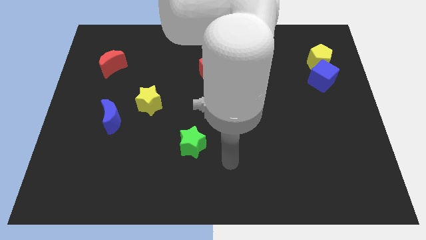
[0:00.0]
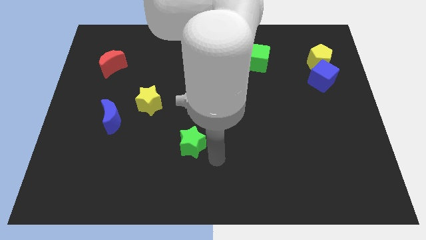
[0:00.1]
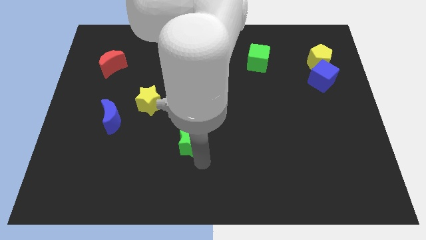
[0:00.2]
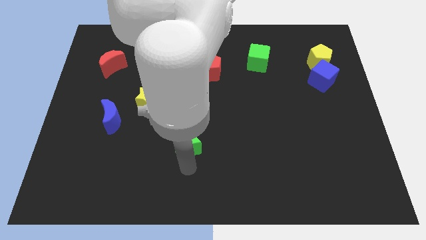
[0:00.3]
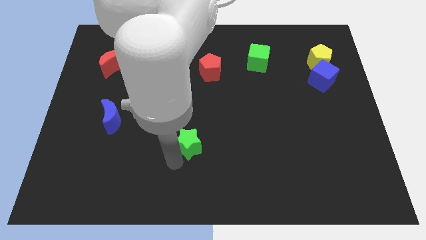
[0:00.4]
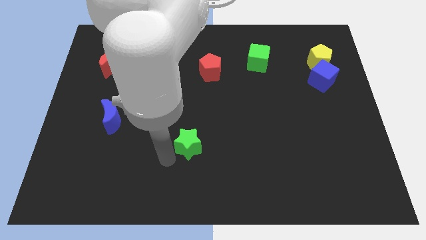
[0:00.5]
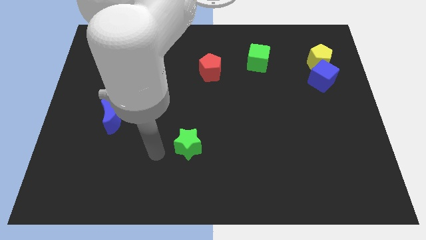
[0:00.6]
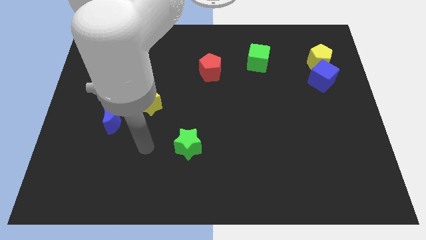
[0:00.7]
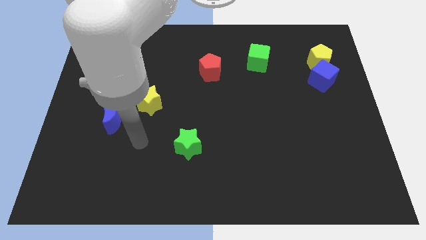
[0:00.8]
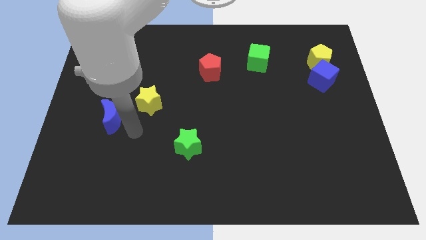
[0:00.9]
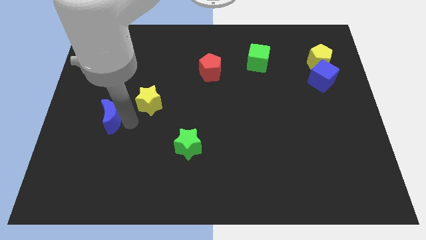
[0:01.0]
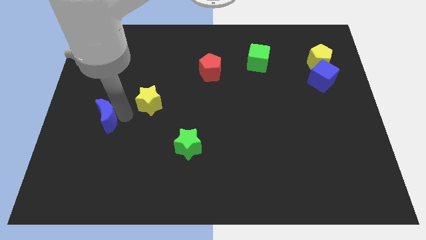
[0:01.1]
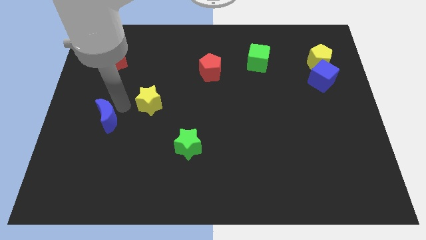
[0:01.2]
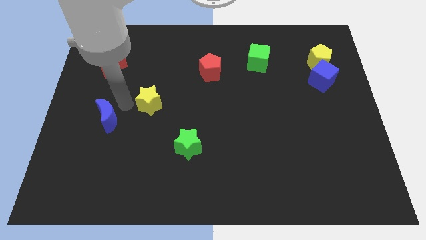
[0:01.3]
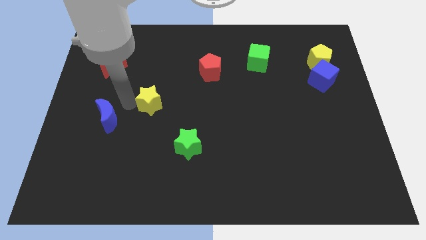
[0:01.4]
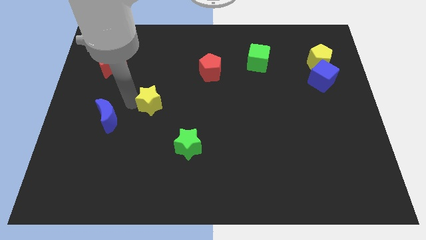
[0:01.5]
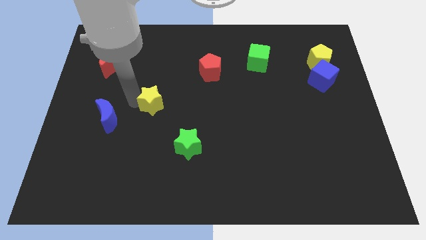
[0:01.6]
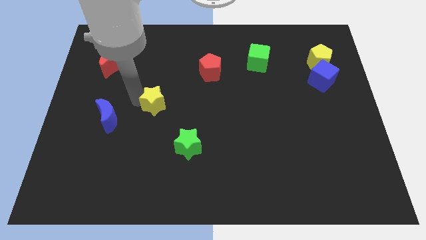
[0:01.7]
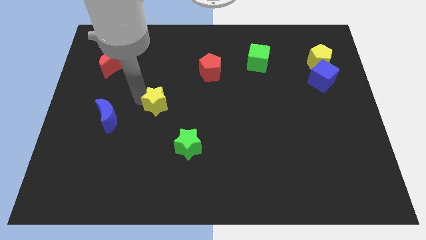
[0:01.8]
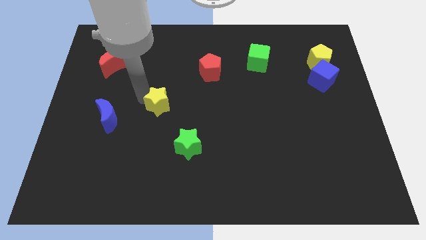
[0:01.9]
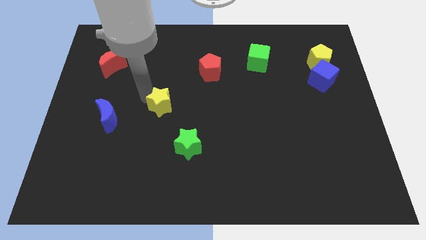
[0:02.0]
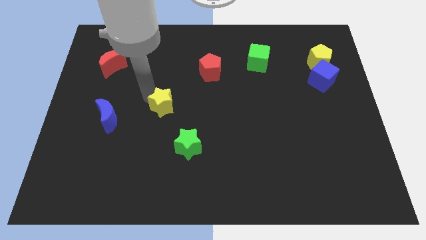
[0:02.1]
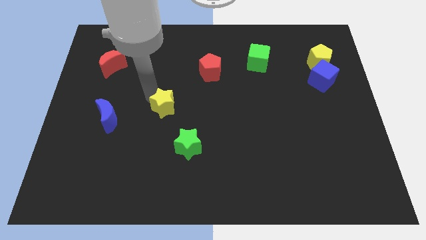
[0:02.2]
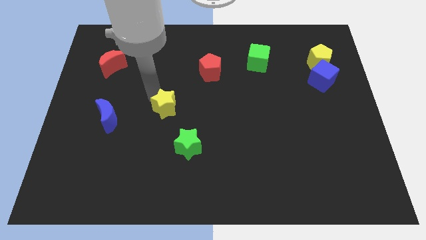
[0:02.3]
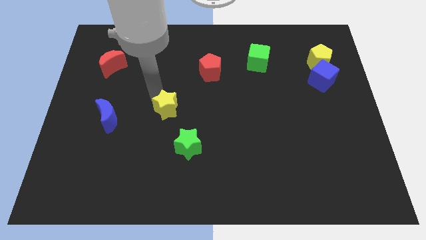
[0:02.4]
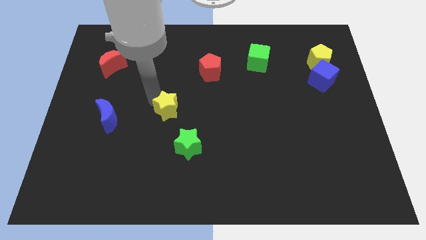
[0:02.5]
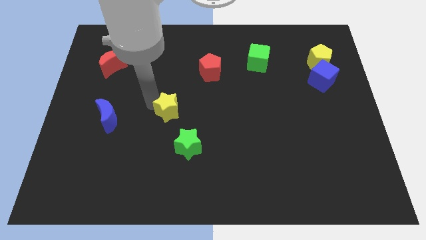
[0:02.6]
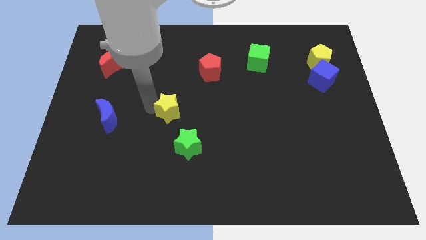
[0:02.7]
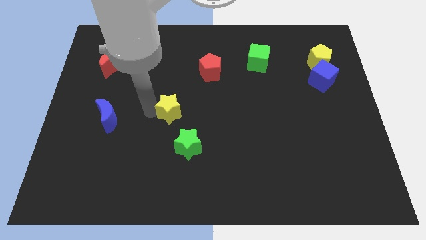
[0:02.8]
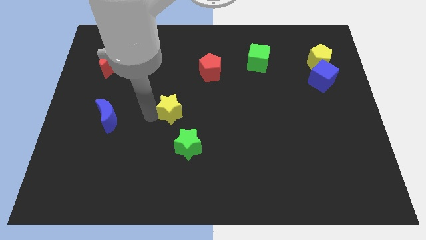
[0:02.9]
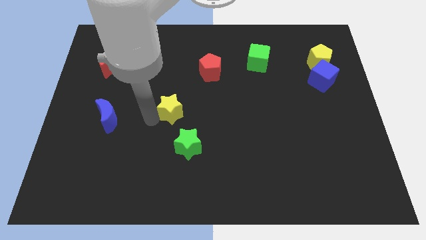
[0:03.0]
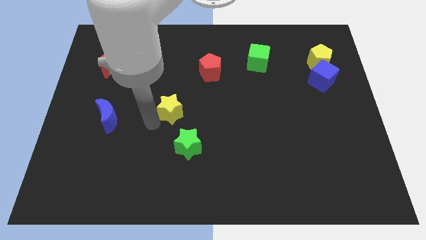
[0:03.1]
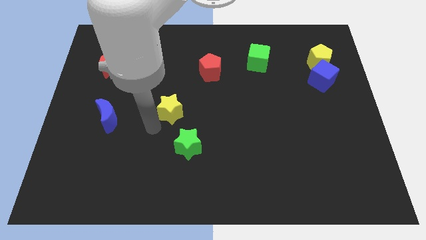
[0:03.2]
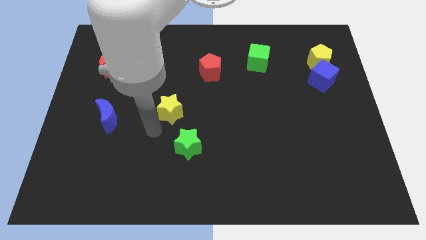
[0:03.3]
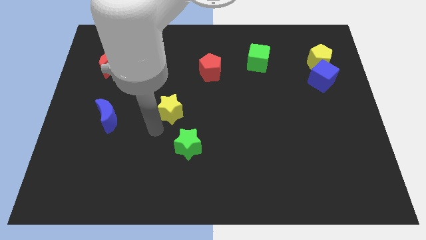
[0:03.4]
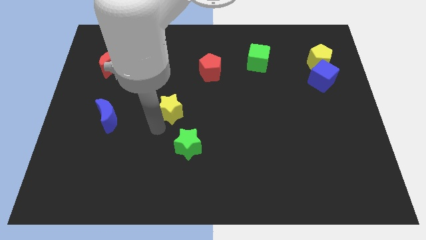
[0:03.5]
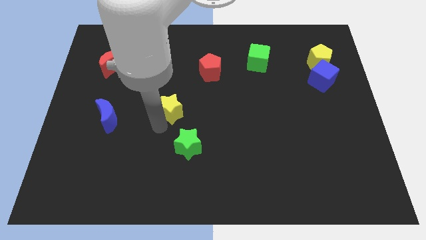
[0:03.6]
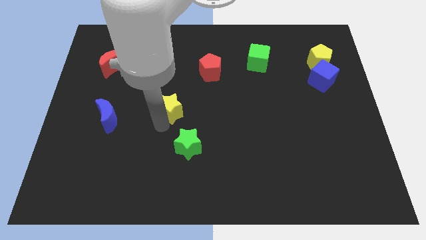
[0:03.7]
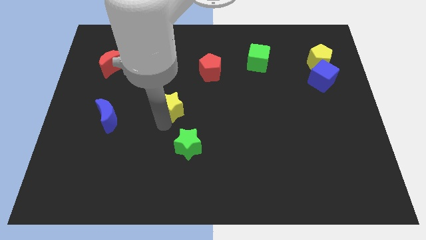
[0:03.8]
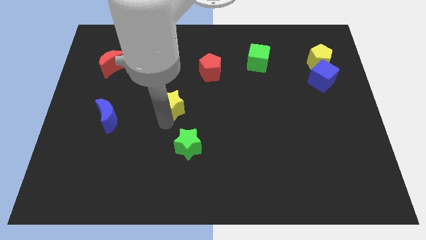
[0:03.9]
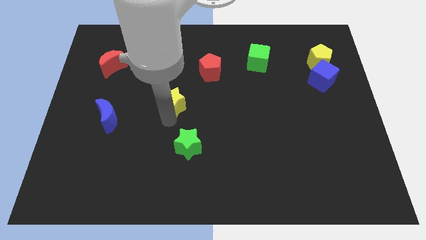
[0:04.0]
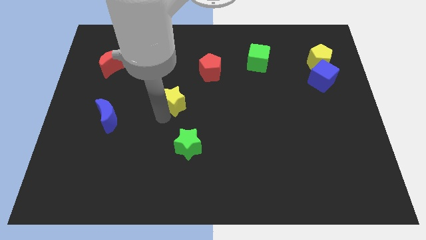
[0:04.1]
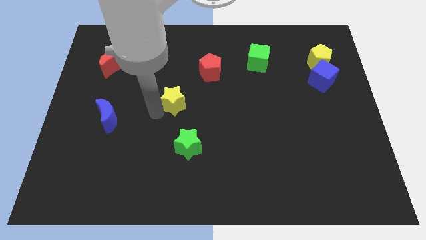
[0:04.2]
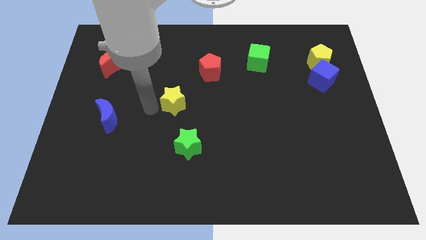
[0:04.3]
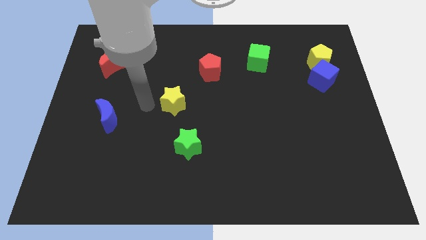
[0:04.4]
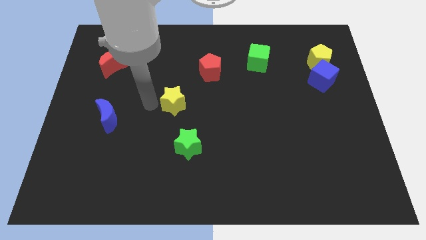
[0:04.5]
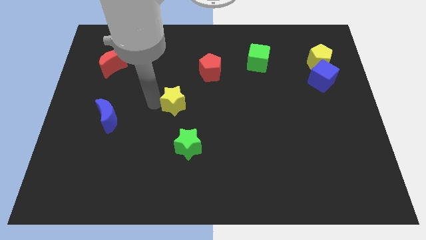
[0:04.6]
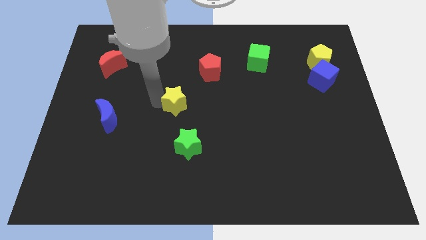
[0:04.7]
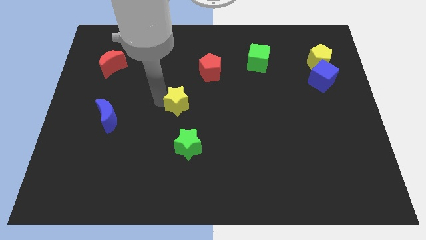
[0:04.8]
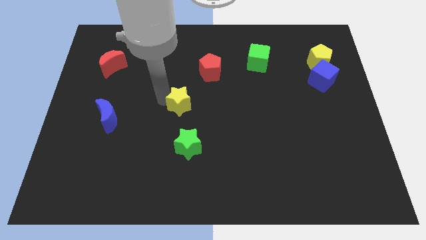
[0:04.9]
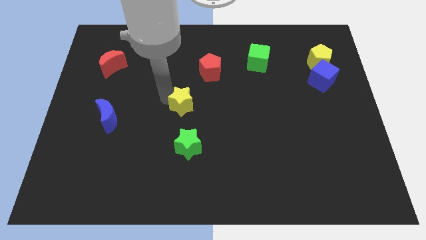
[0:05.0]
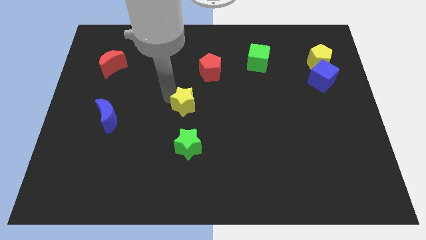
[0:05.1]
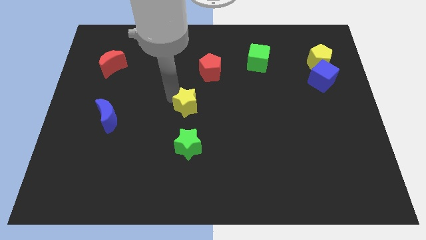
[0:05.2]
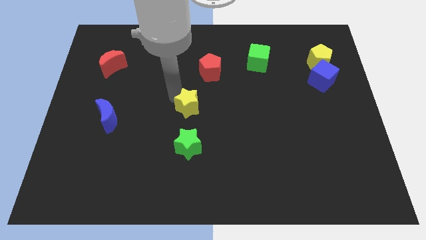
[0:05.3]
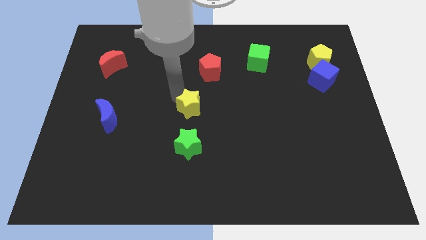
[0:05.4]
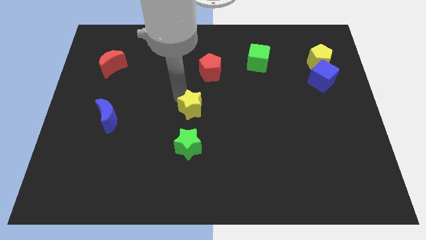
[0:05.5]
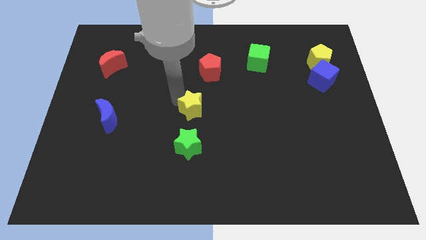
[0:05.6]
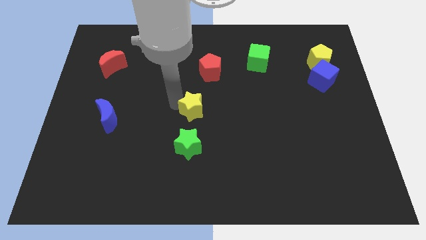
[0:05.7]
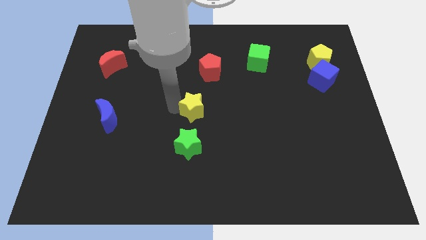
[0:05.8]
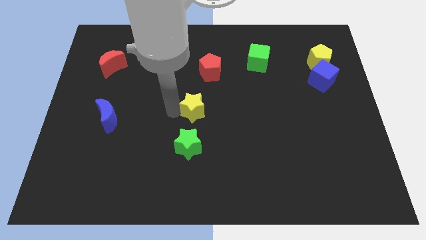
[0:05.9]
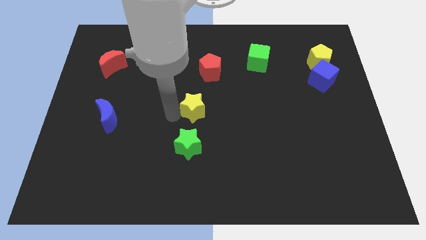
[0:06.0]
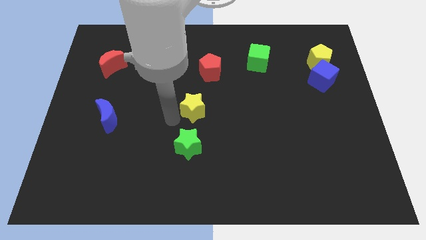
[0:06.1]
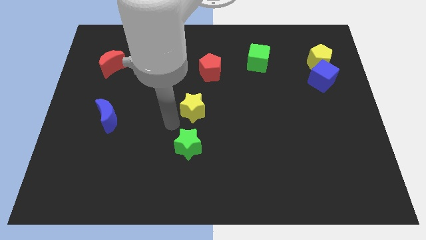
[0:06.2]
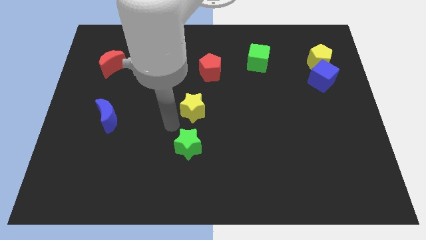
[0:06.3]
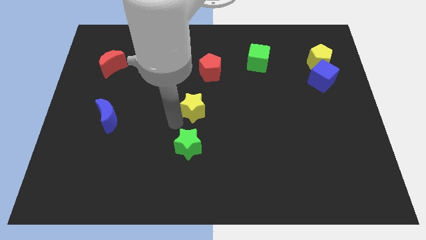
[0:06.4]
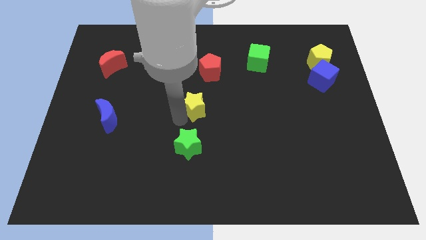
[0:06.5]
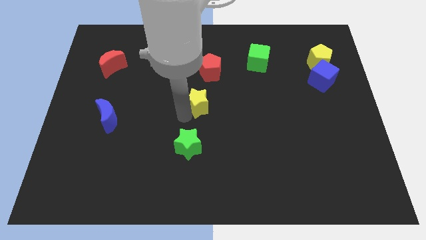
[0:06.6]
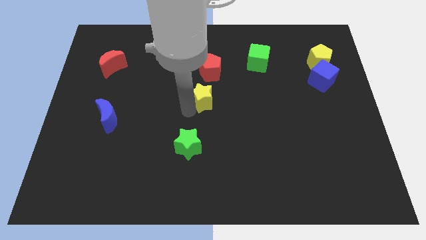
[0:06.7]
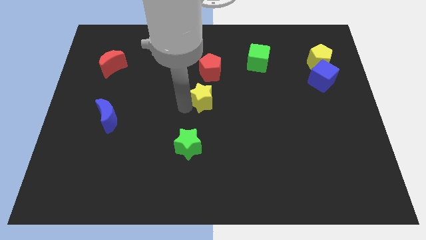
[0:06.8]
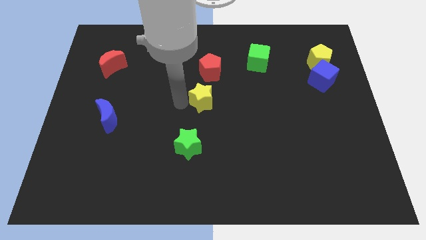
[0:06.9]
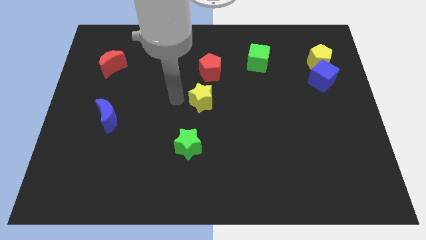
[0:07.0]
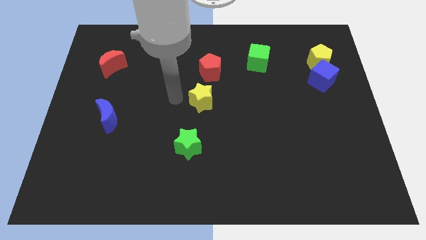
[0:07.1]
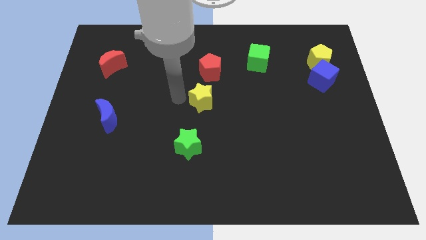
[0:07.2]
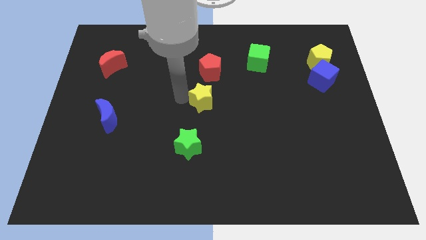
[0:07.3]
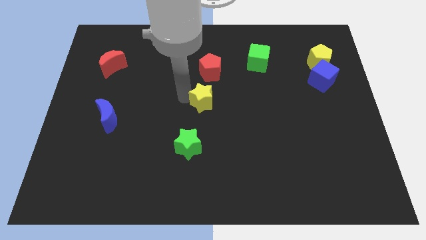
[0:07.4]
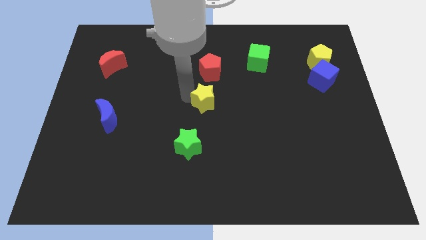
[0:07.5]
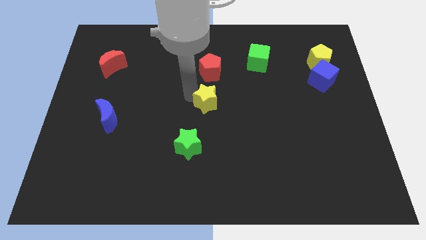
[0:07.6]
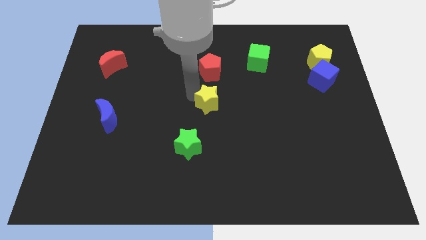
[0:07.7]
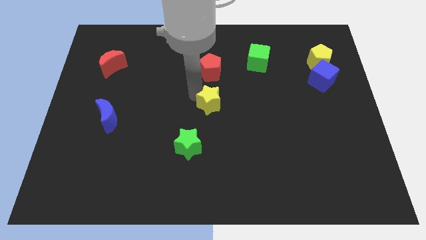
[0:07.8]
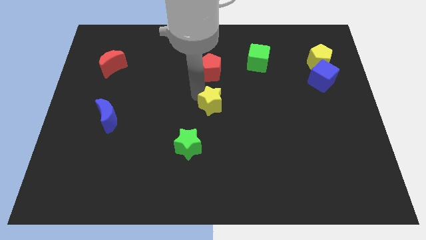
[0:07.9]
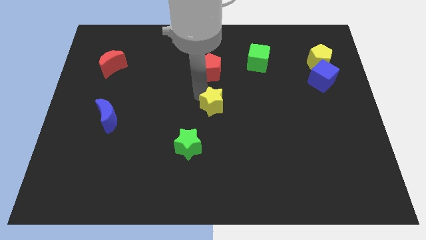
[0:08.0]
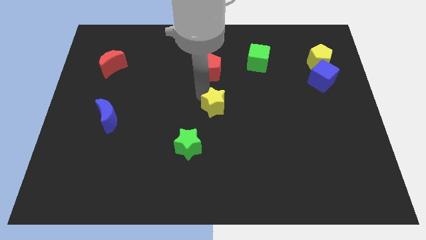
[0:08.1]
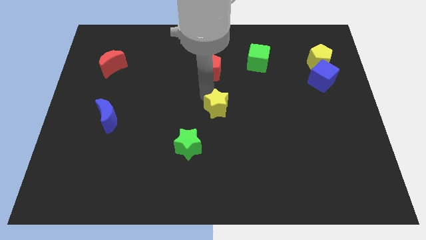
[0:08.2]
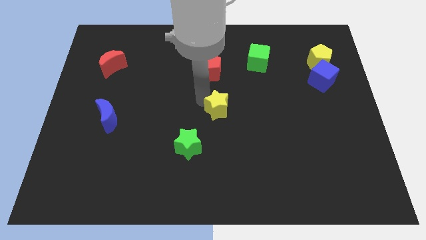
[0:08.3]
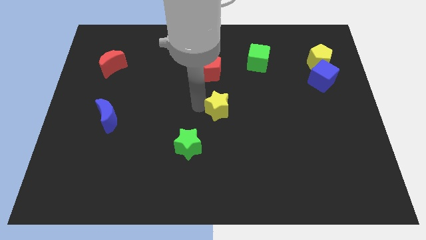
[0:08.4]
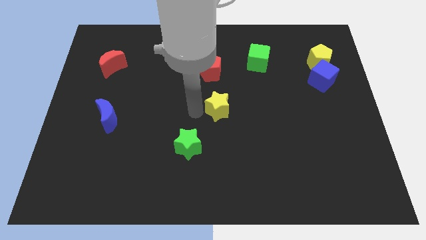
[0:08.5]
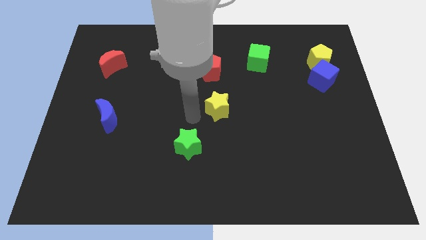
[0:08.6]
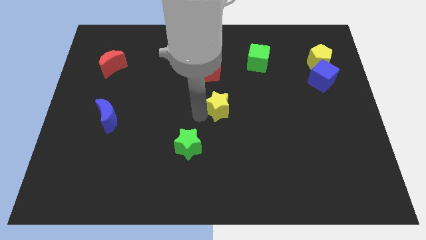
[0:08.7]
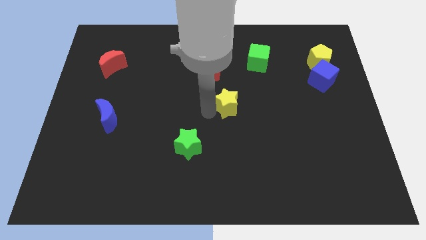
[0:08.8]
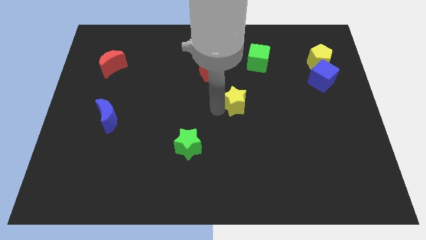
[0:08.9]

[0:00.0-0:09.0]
push the yellow star right
